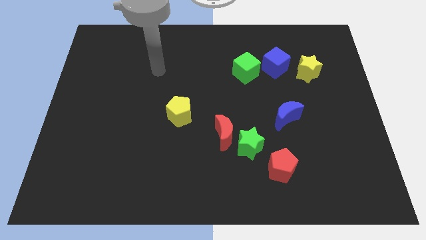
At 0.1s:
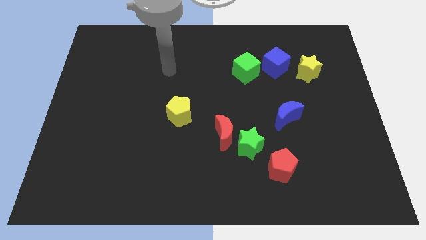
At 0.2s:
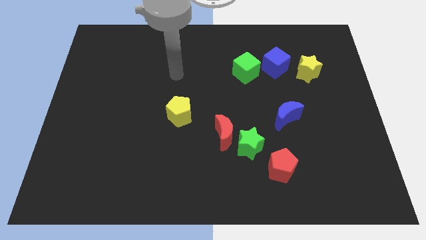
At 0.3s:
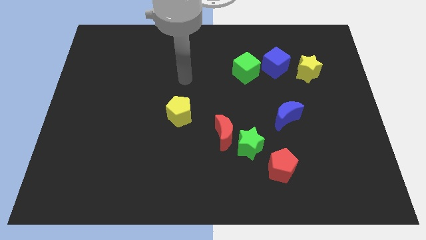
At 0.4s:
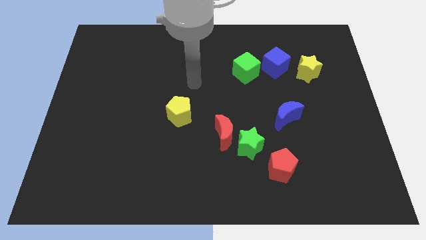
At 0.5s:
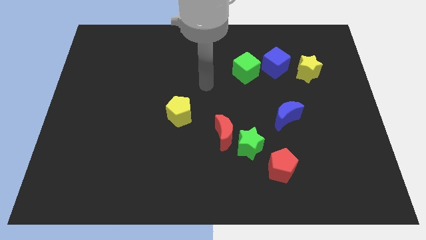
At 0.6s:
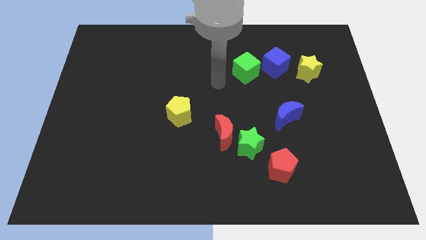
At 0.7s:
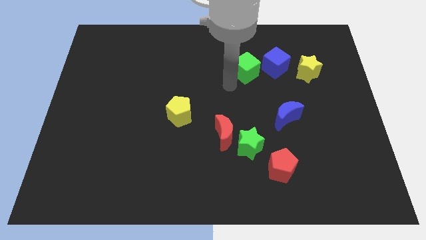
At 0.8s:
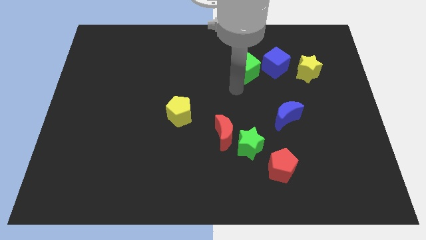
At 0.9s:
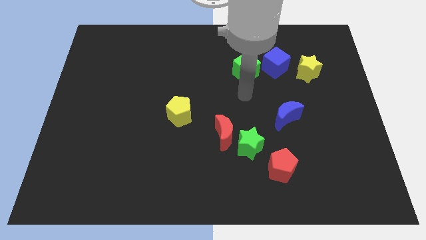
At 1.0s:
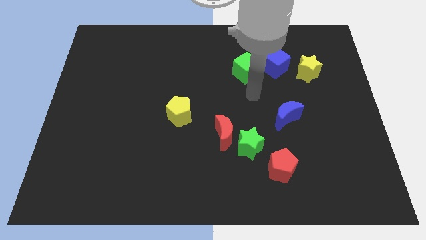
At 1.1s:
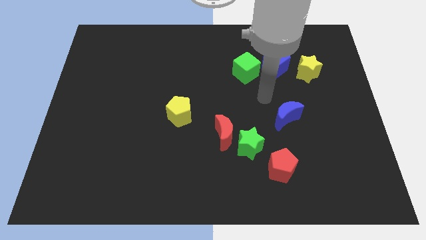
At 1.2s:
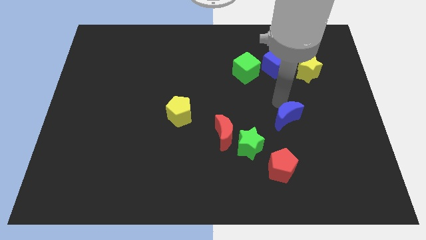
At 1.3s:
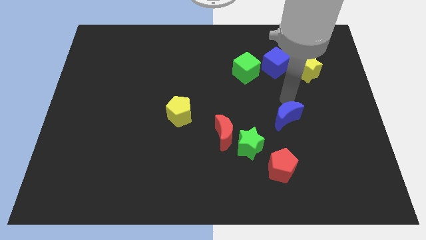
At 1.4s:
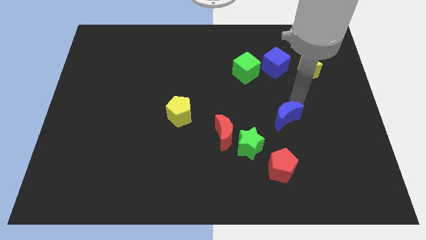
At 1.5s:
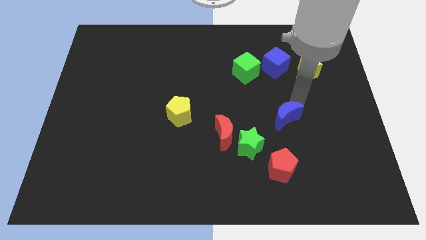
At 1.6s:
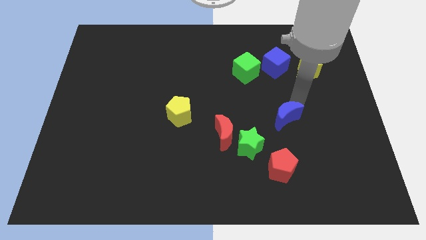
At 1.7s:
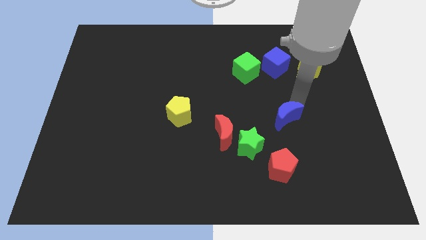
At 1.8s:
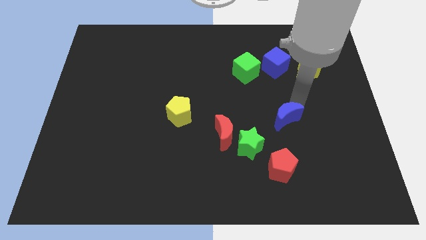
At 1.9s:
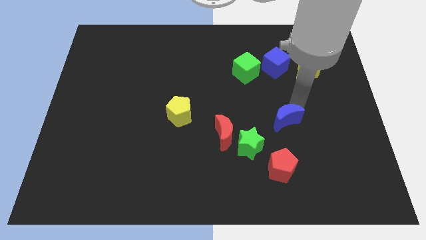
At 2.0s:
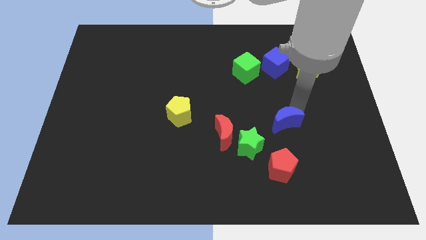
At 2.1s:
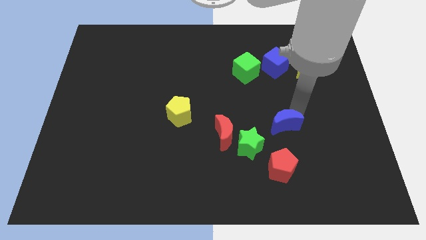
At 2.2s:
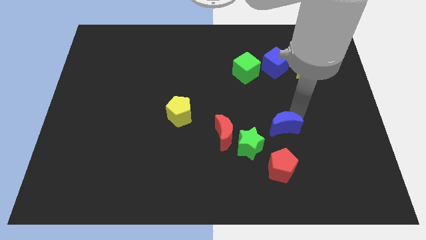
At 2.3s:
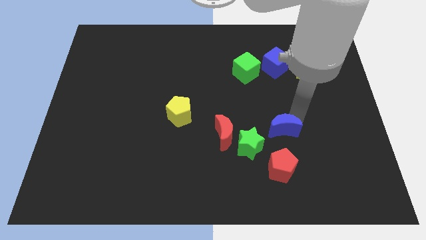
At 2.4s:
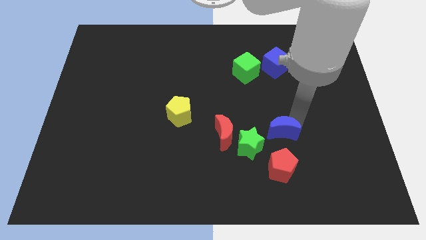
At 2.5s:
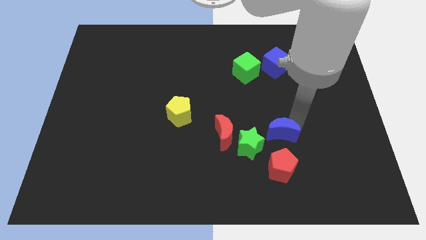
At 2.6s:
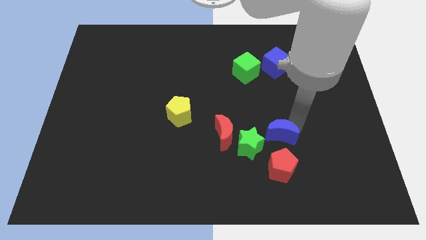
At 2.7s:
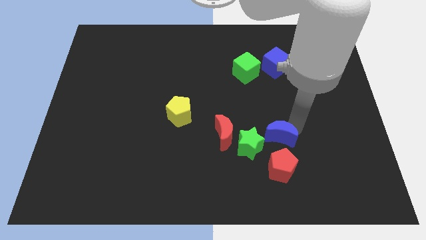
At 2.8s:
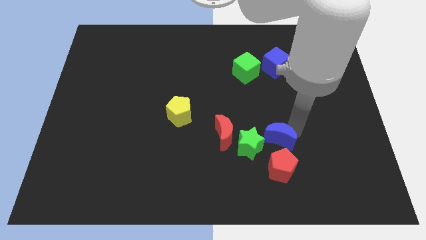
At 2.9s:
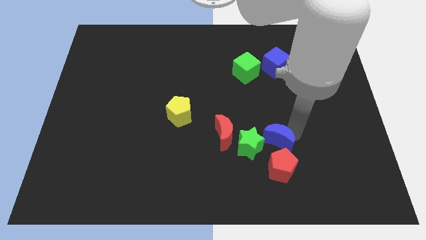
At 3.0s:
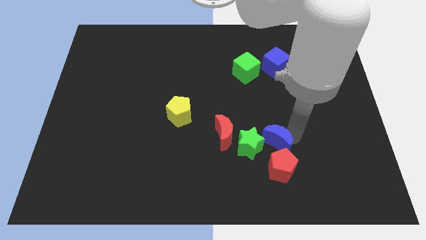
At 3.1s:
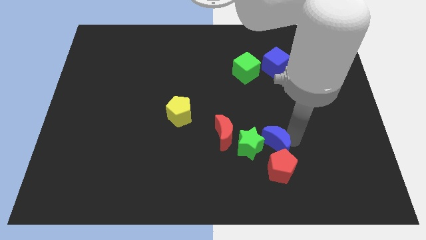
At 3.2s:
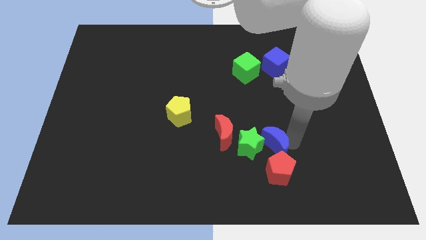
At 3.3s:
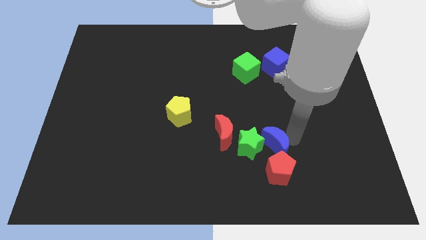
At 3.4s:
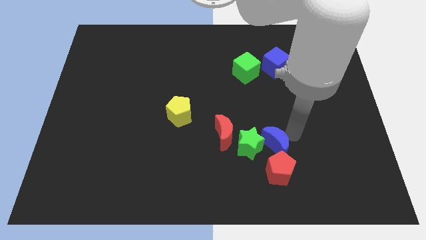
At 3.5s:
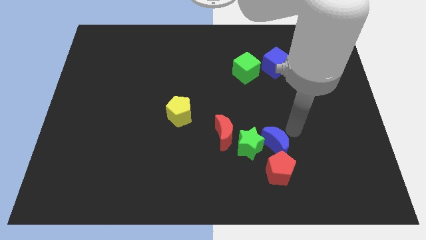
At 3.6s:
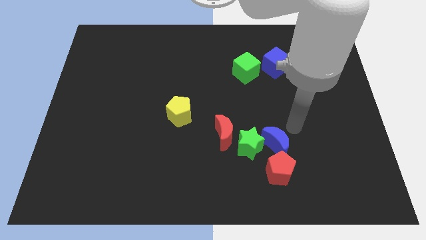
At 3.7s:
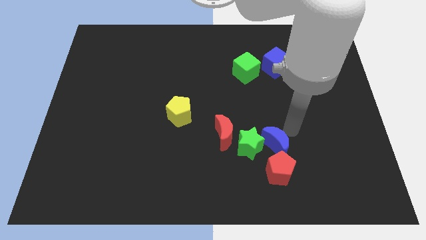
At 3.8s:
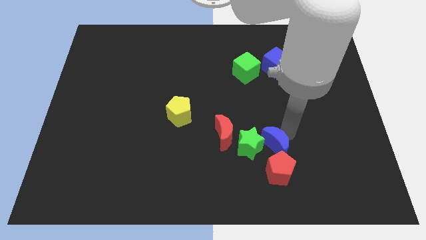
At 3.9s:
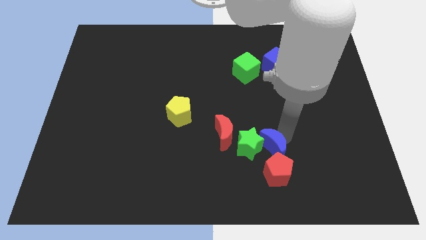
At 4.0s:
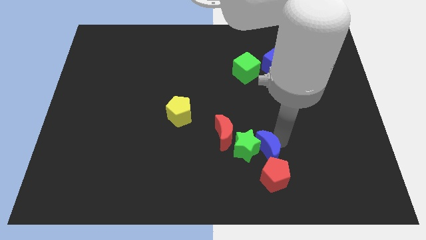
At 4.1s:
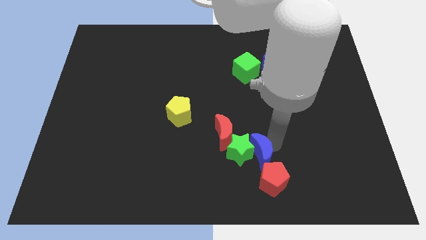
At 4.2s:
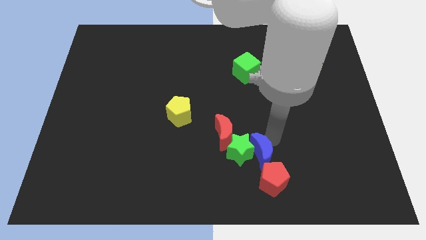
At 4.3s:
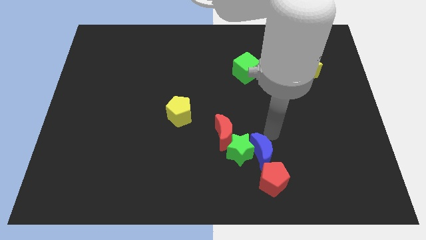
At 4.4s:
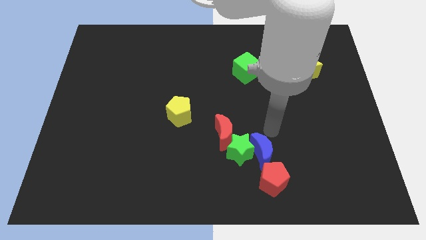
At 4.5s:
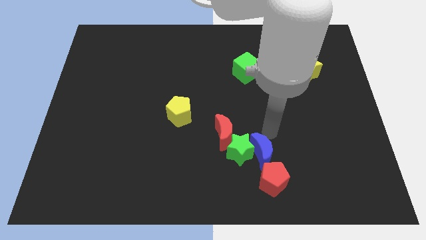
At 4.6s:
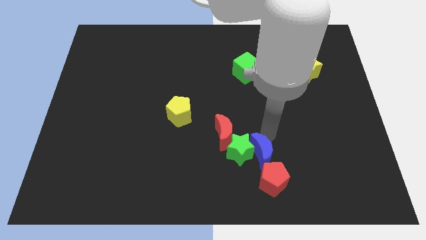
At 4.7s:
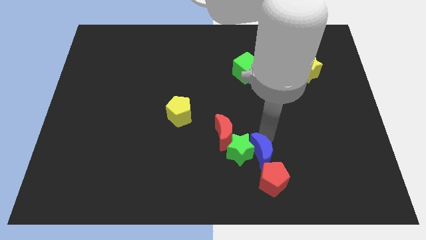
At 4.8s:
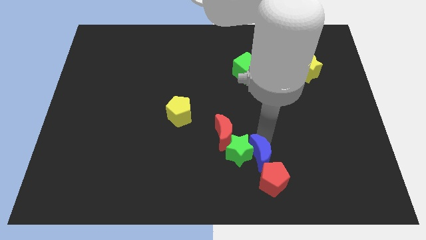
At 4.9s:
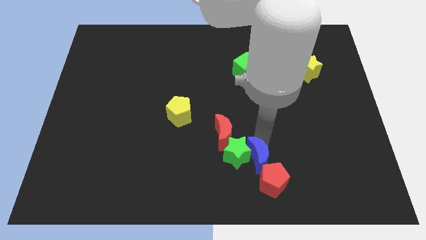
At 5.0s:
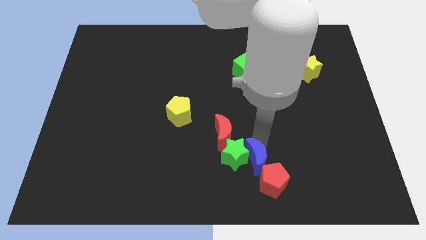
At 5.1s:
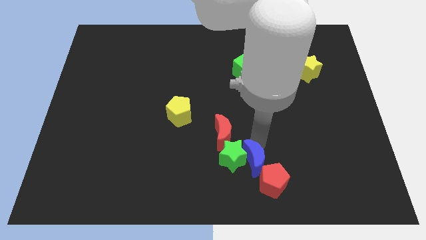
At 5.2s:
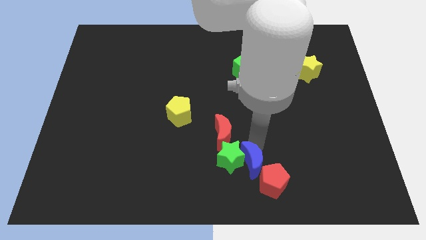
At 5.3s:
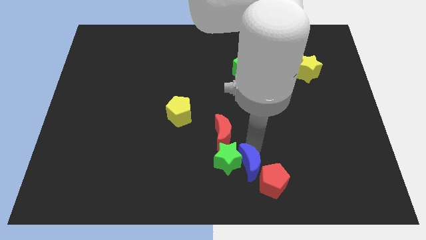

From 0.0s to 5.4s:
put the blue moon to the bottom side
